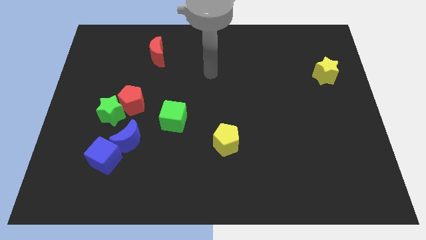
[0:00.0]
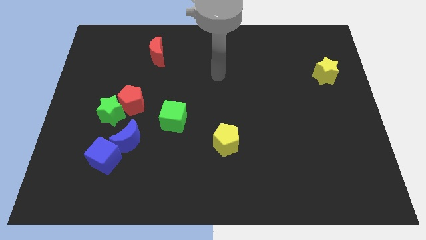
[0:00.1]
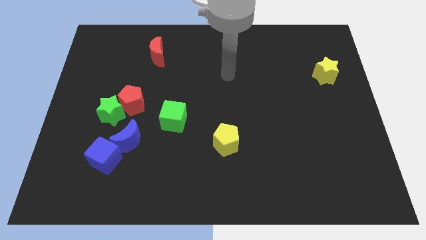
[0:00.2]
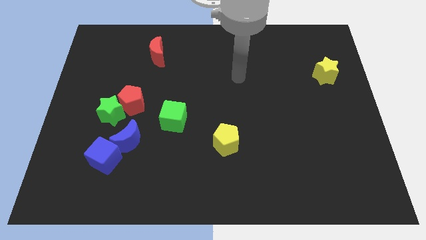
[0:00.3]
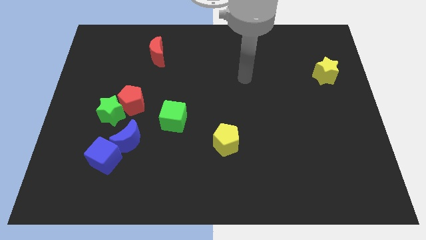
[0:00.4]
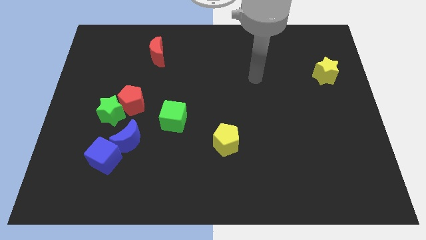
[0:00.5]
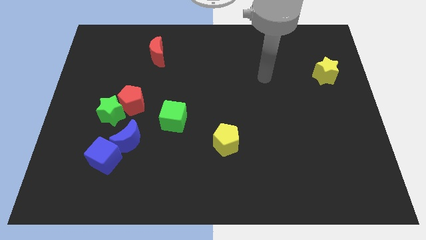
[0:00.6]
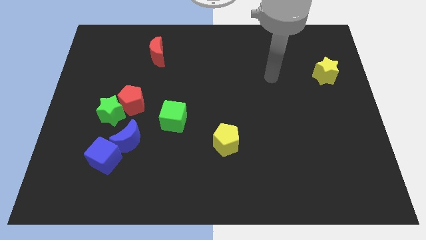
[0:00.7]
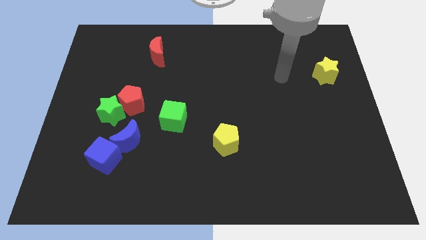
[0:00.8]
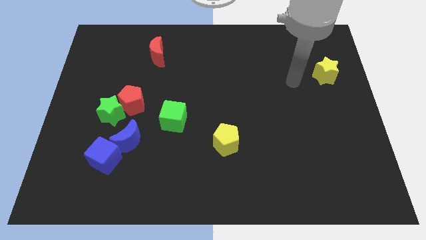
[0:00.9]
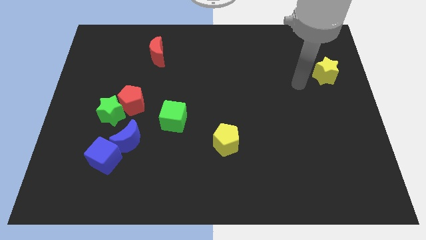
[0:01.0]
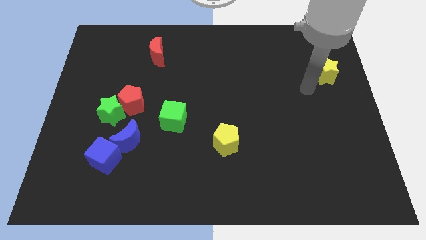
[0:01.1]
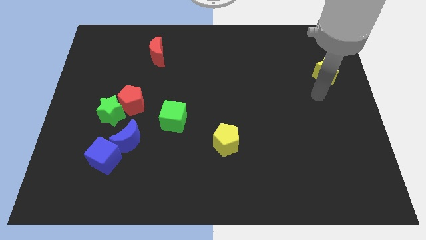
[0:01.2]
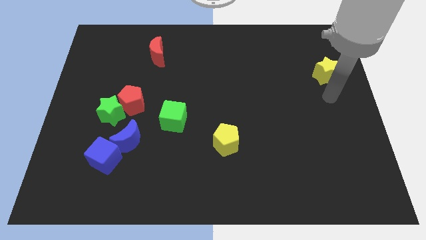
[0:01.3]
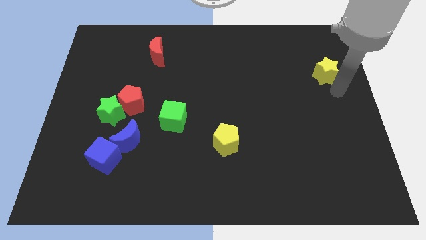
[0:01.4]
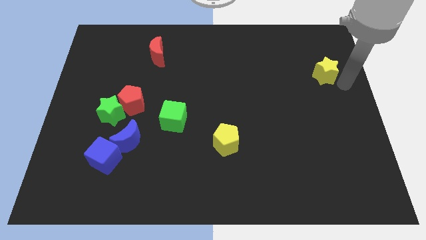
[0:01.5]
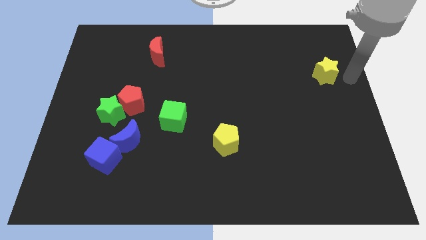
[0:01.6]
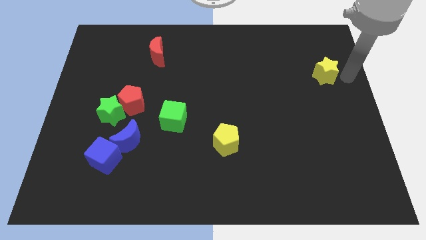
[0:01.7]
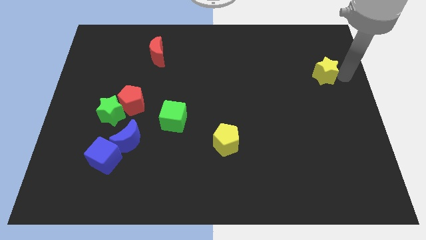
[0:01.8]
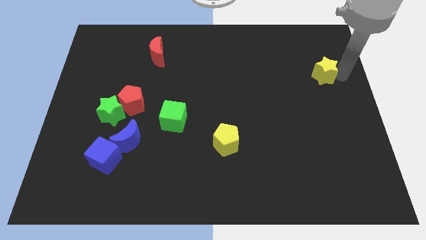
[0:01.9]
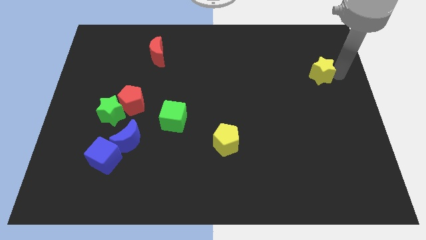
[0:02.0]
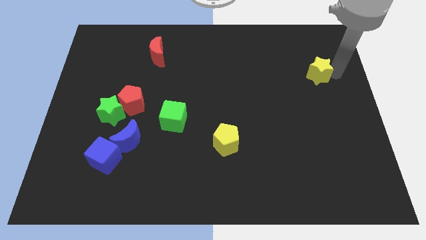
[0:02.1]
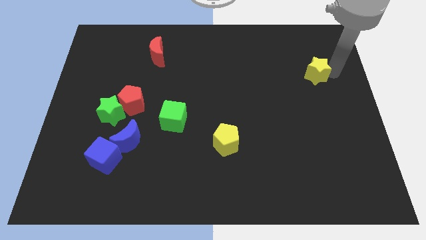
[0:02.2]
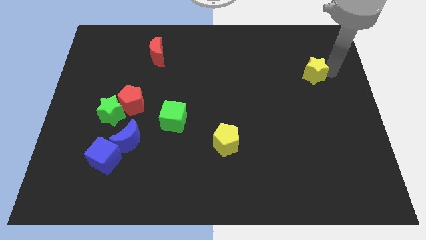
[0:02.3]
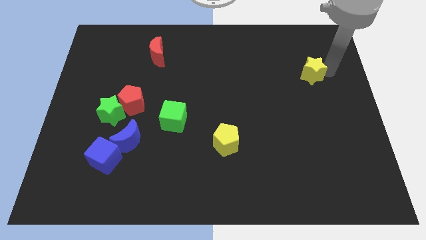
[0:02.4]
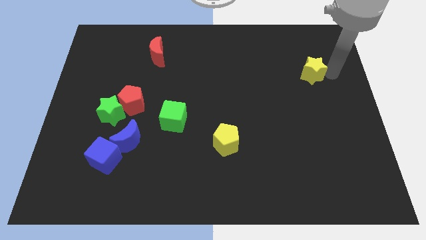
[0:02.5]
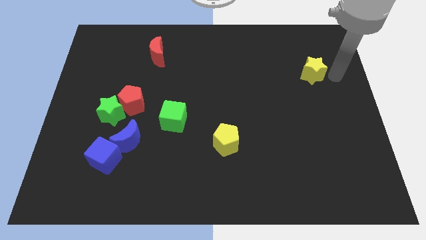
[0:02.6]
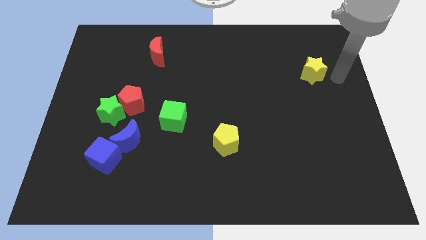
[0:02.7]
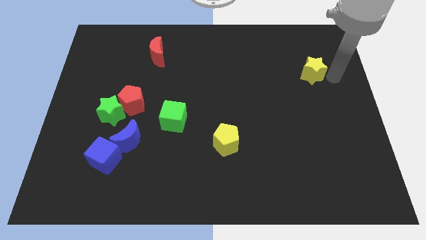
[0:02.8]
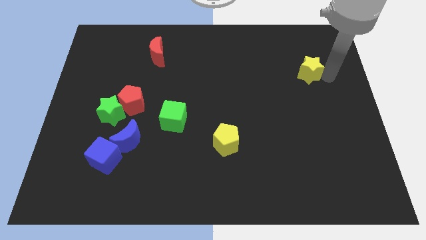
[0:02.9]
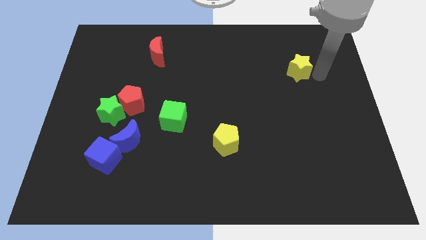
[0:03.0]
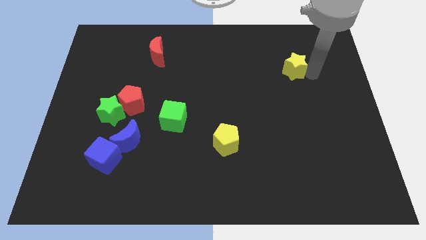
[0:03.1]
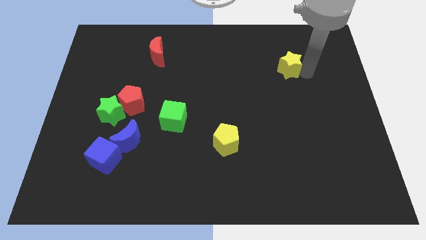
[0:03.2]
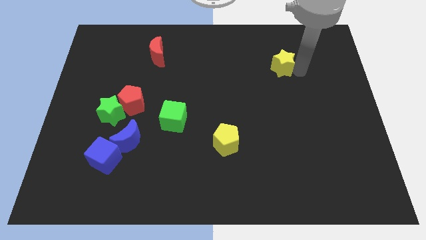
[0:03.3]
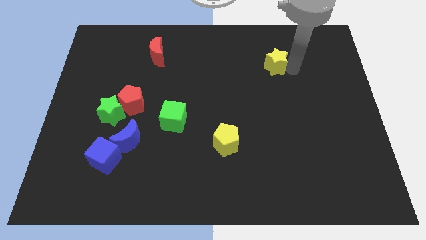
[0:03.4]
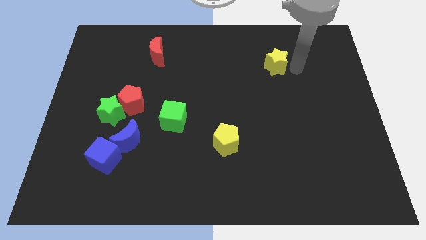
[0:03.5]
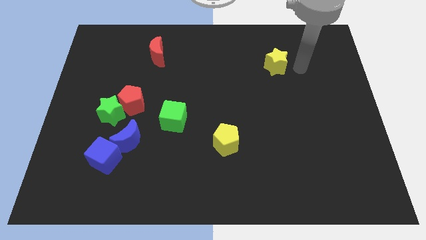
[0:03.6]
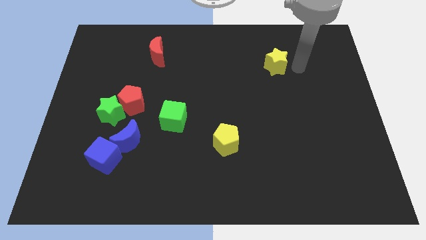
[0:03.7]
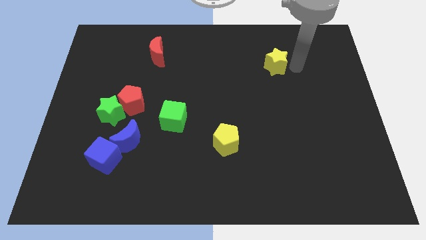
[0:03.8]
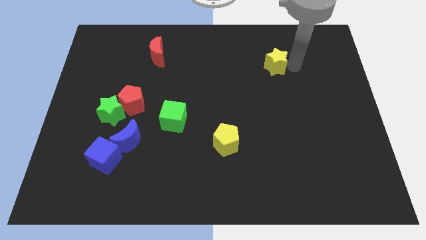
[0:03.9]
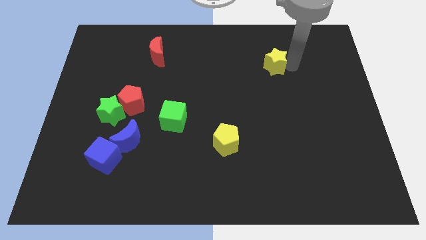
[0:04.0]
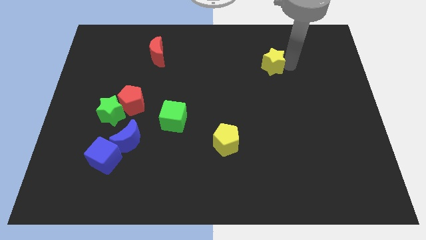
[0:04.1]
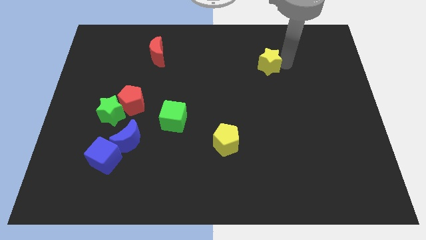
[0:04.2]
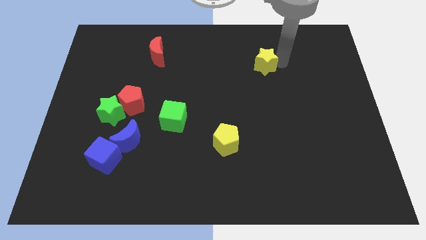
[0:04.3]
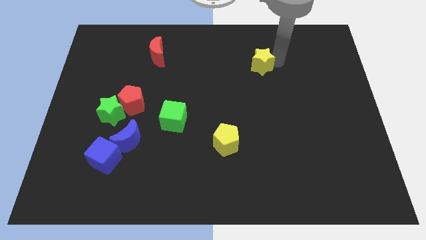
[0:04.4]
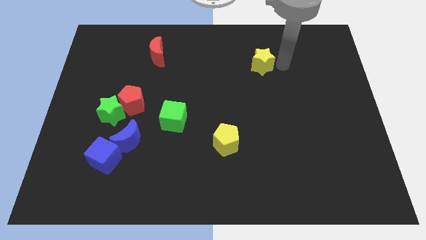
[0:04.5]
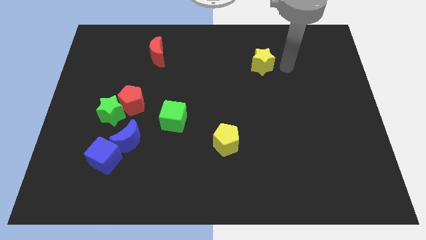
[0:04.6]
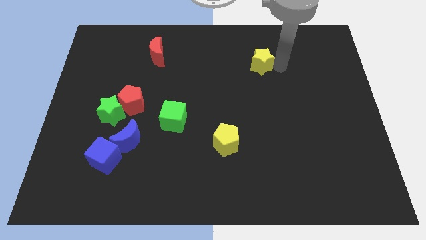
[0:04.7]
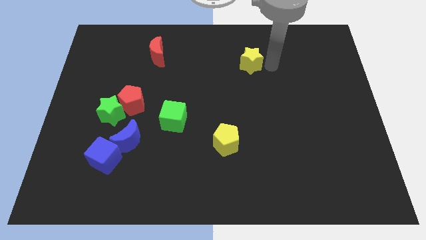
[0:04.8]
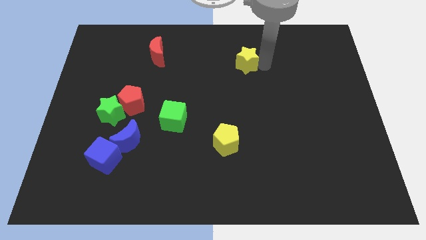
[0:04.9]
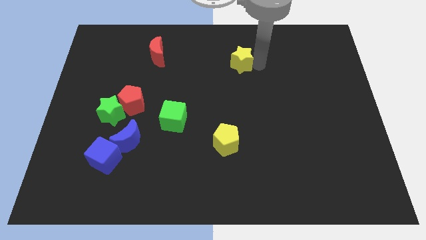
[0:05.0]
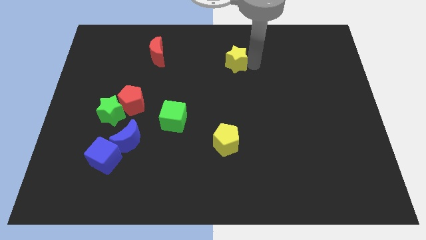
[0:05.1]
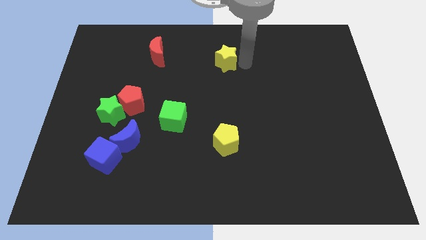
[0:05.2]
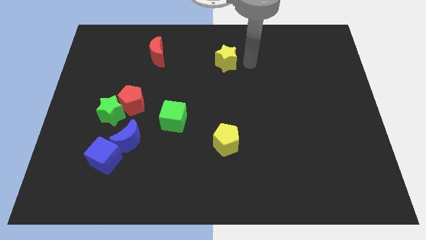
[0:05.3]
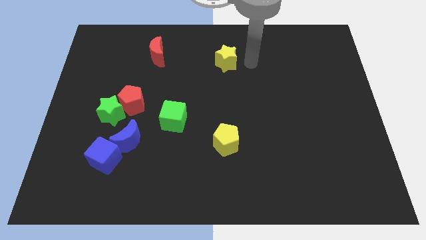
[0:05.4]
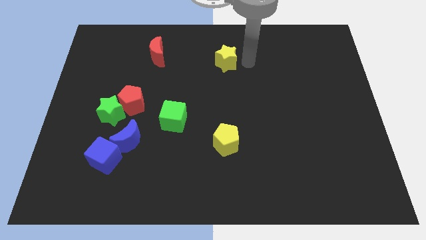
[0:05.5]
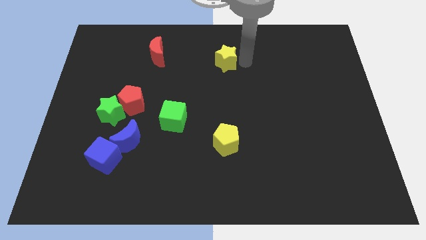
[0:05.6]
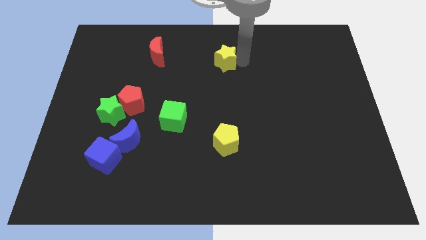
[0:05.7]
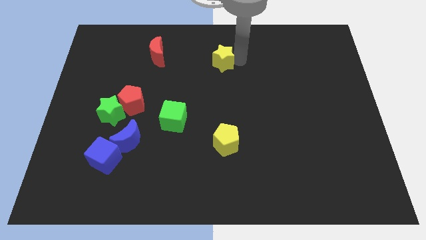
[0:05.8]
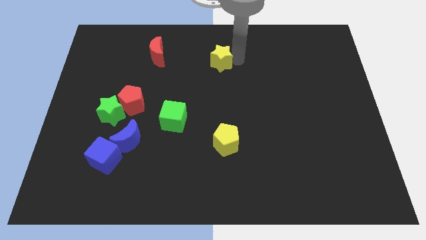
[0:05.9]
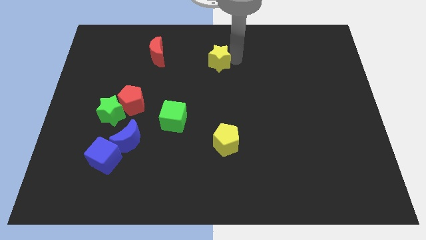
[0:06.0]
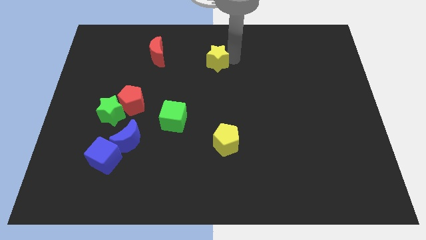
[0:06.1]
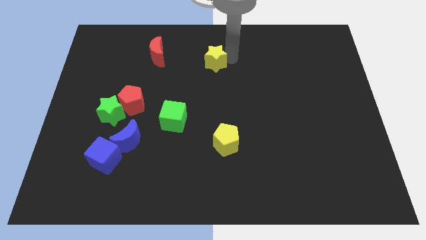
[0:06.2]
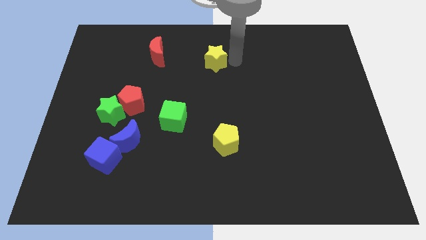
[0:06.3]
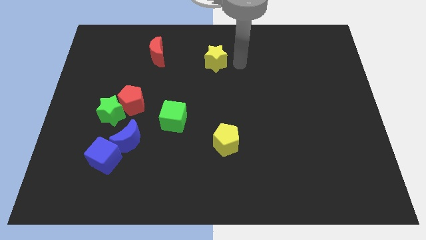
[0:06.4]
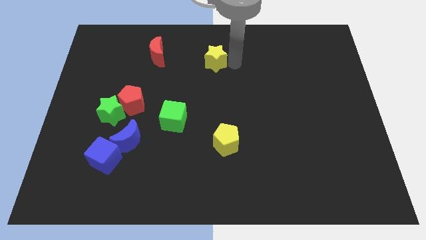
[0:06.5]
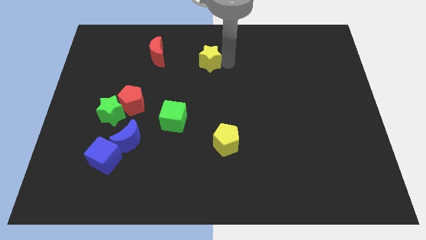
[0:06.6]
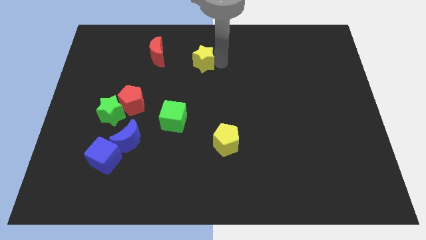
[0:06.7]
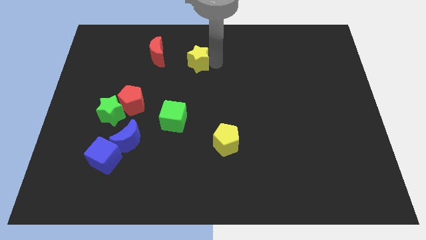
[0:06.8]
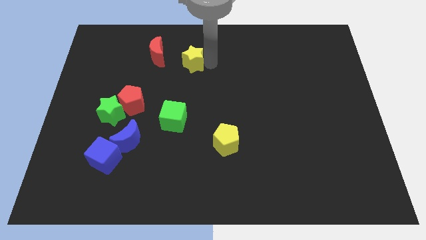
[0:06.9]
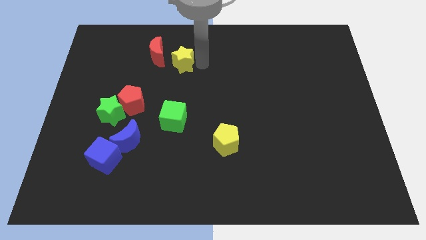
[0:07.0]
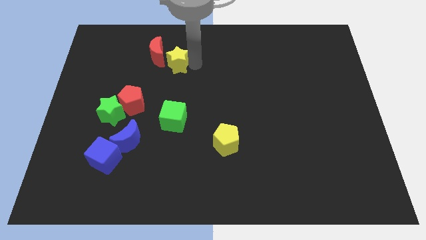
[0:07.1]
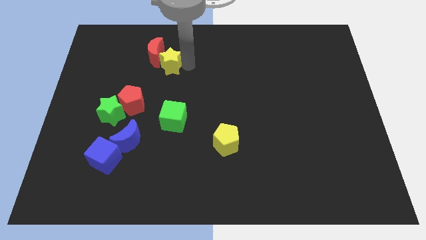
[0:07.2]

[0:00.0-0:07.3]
put the yellow star to the red moon
